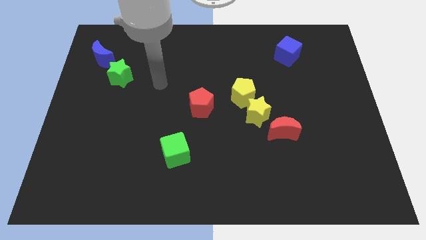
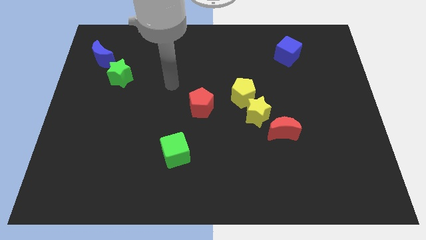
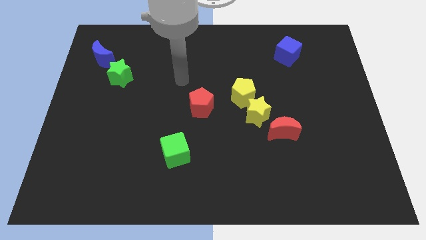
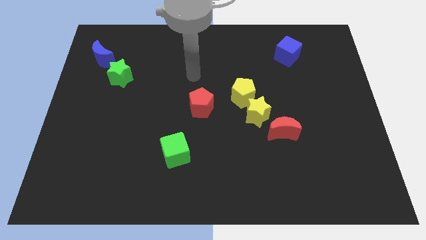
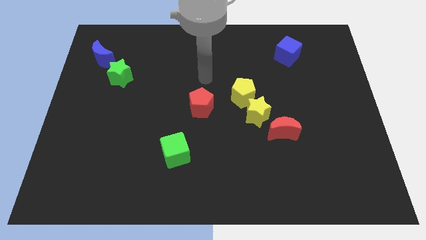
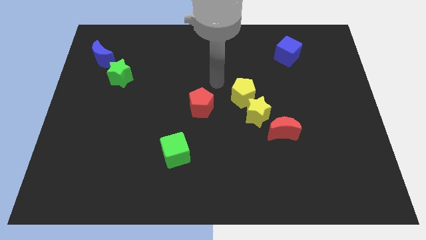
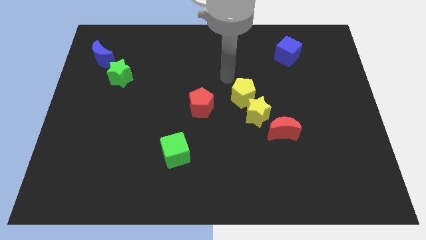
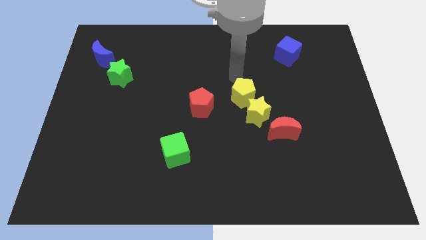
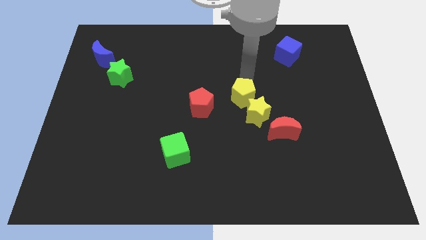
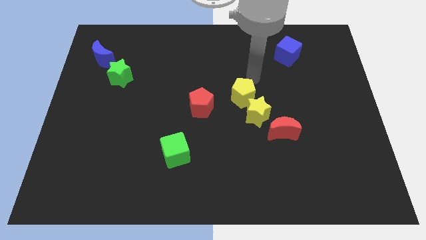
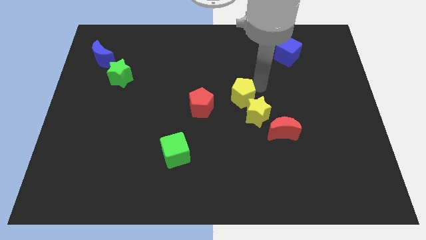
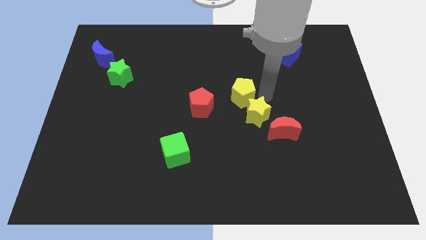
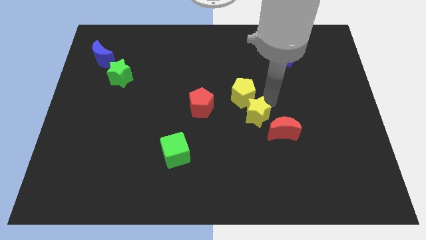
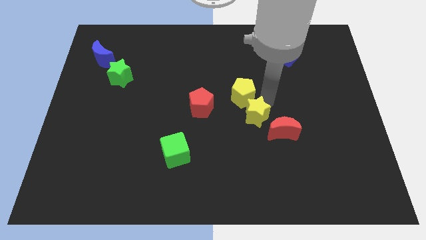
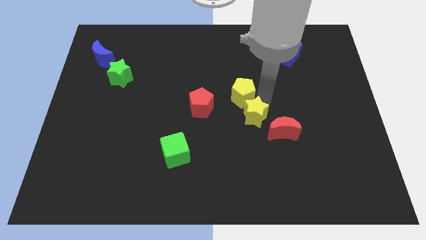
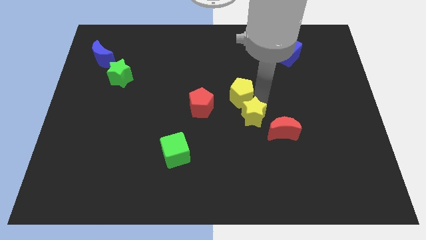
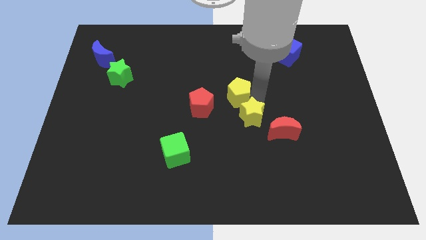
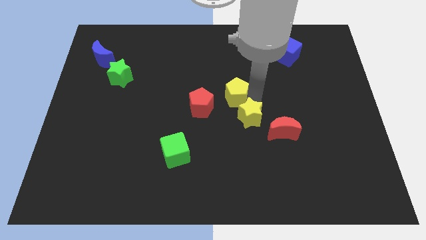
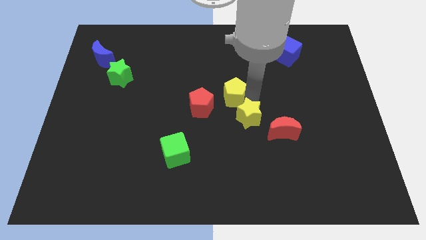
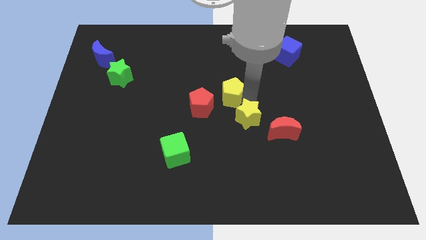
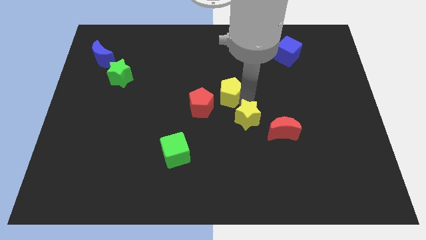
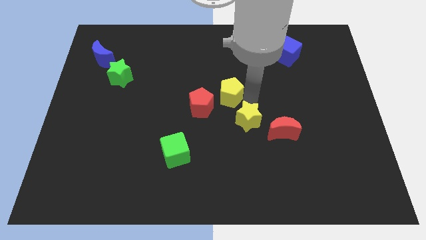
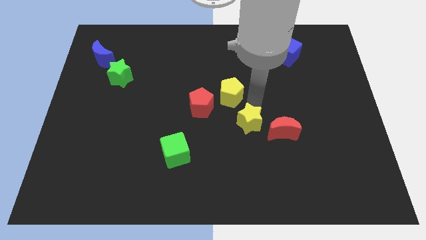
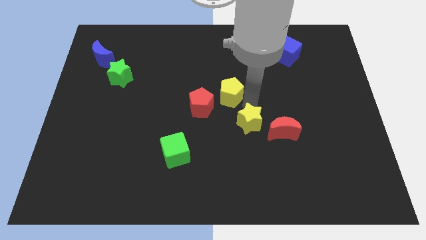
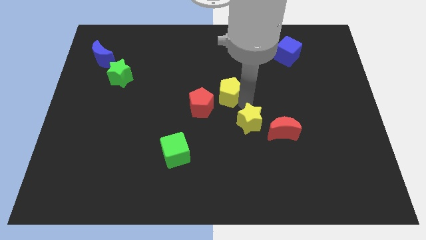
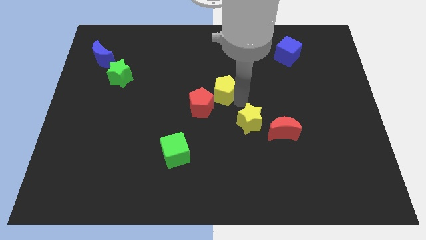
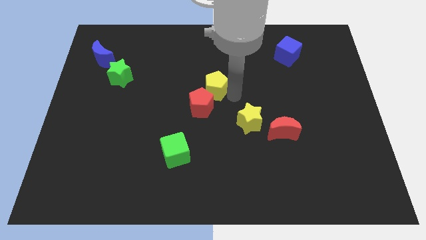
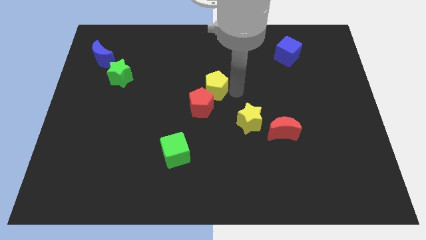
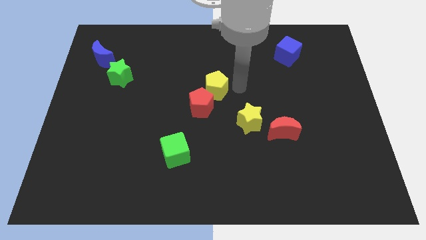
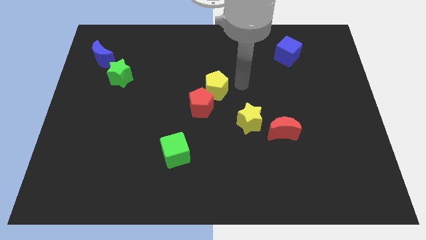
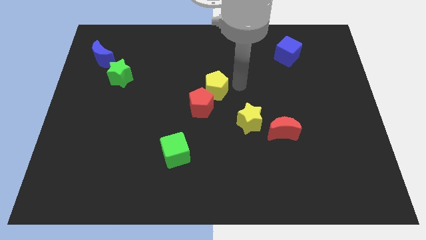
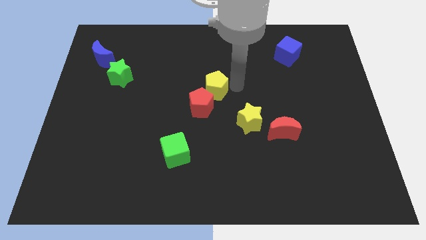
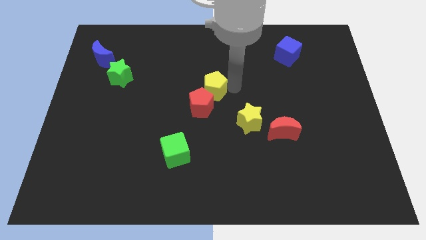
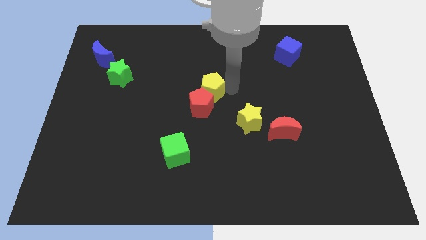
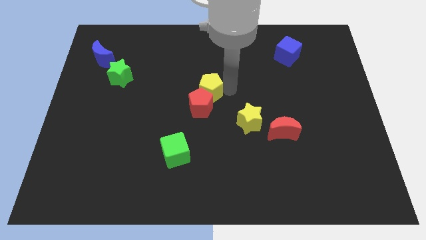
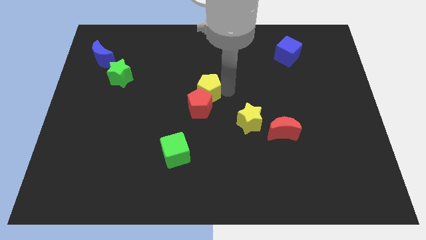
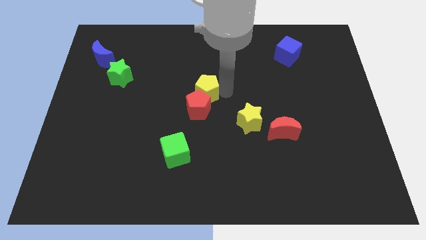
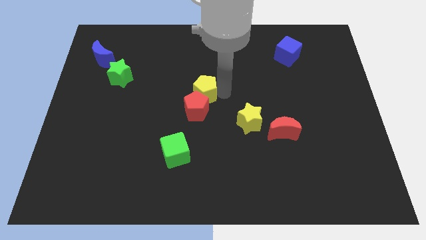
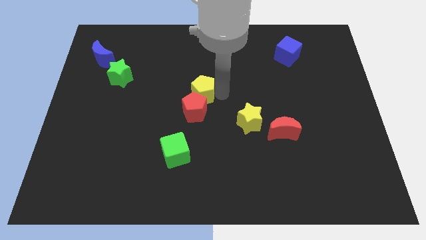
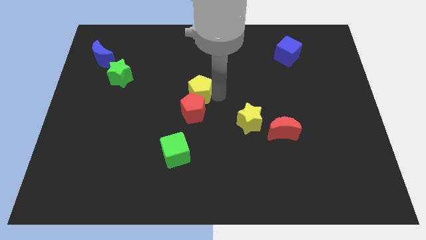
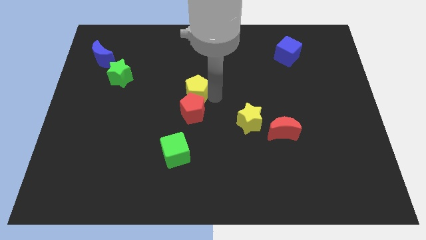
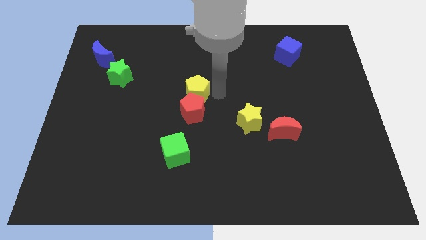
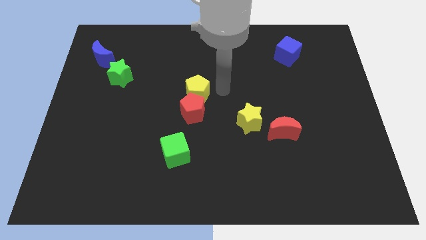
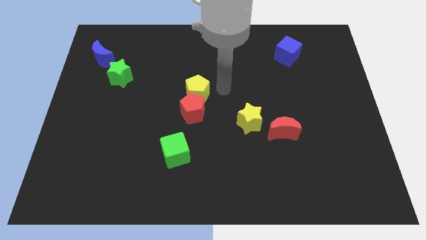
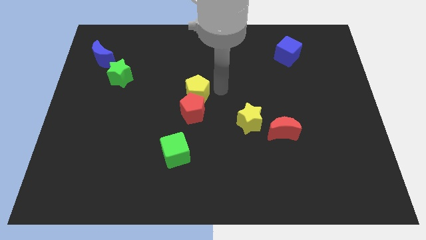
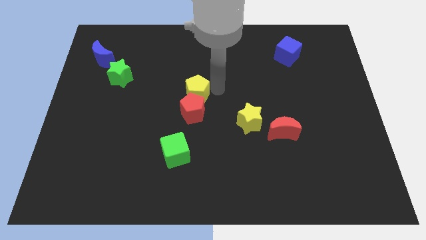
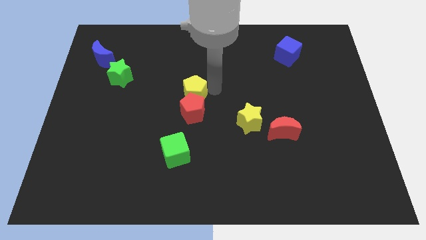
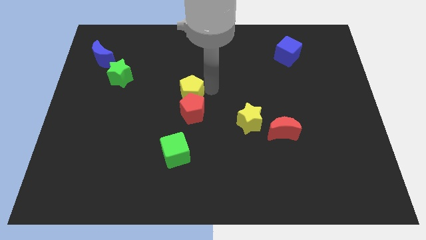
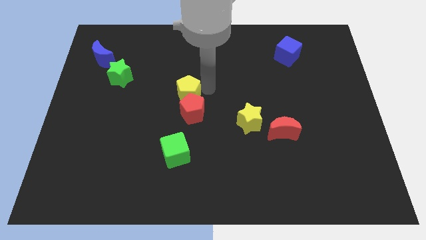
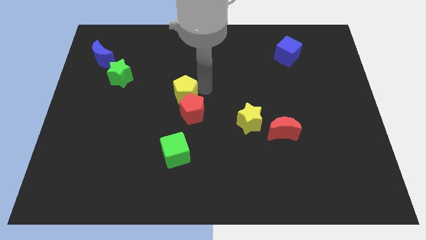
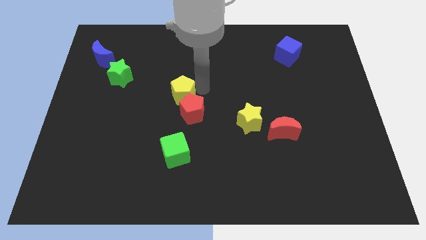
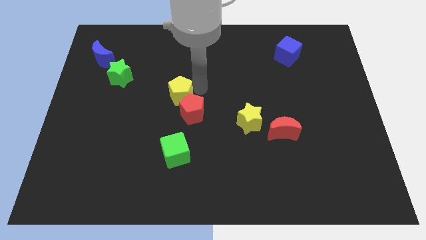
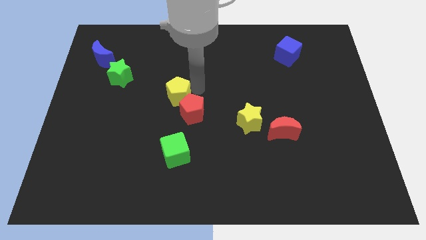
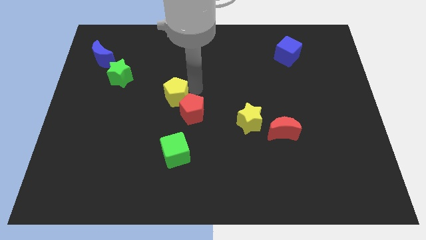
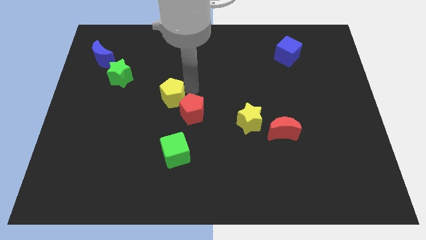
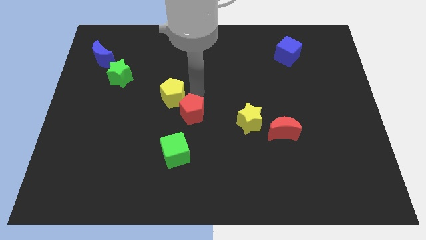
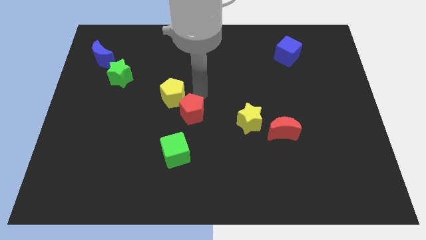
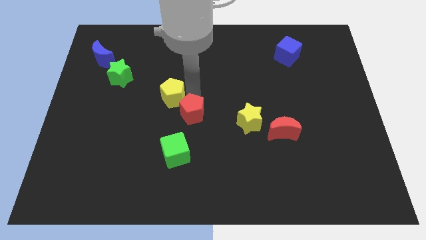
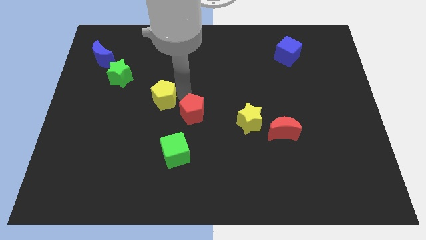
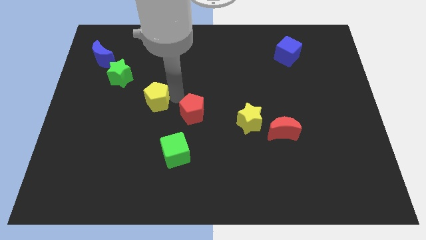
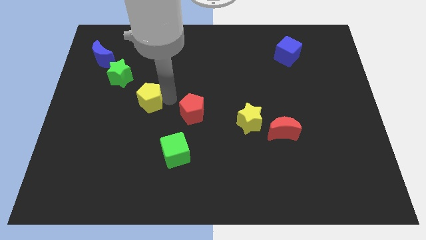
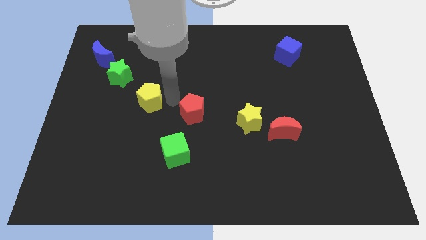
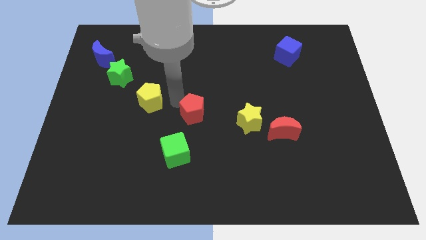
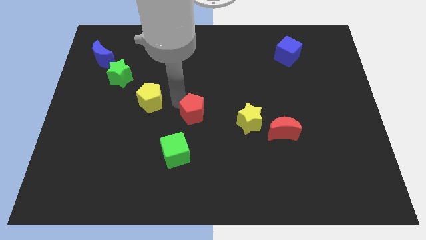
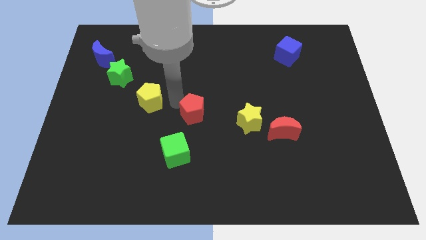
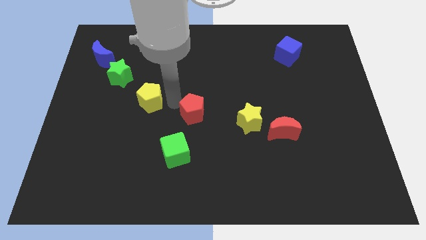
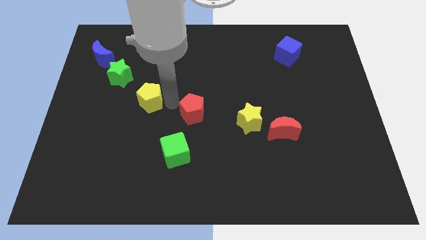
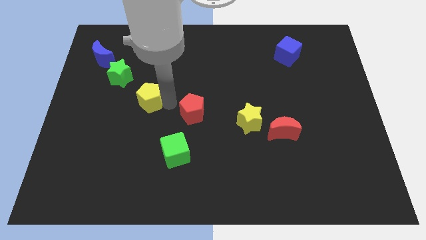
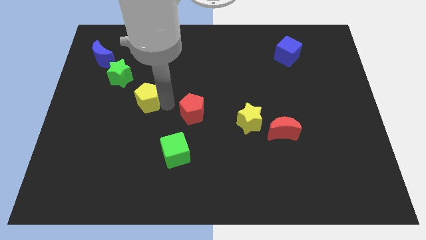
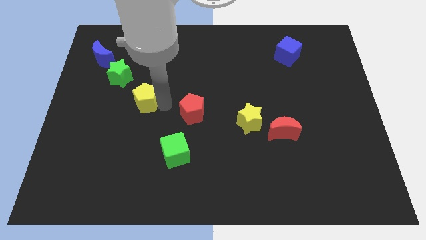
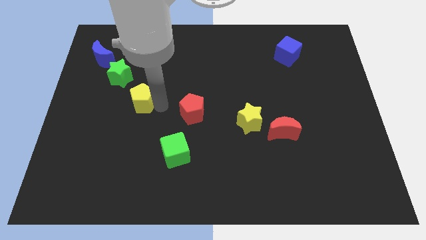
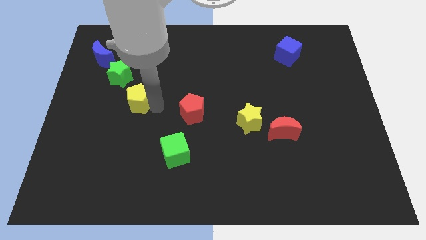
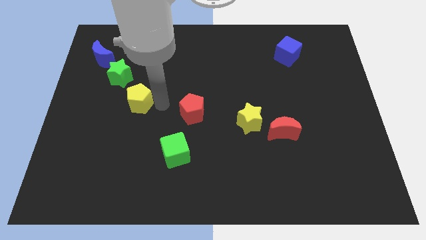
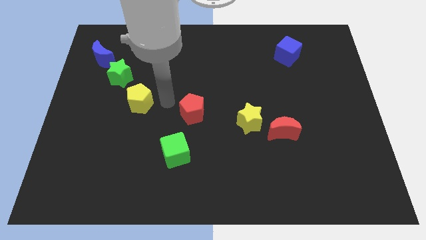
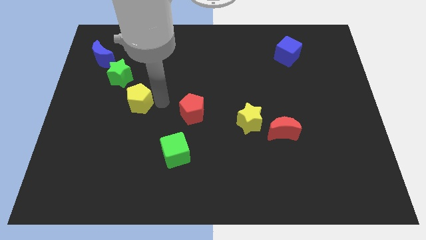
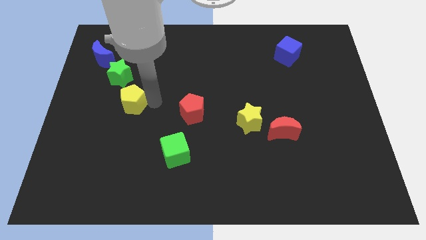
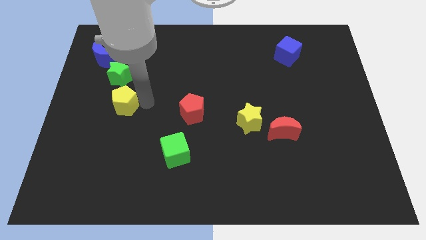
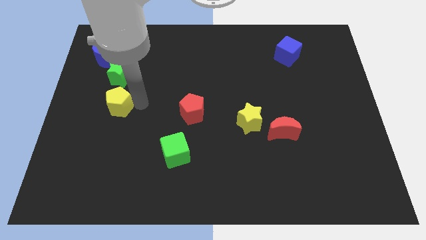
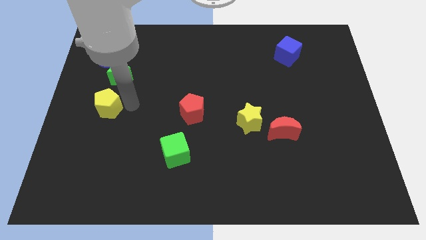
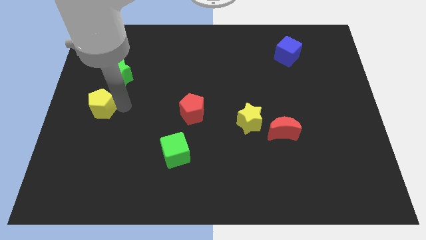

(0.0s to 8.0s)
move the yellow pentagon to the left side of the board
